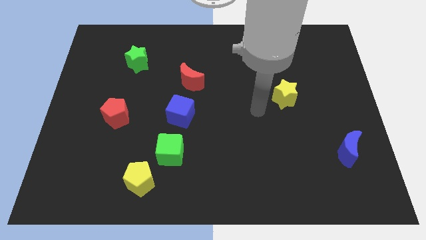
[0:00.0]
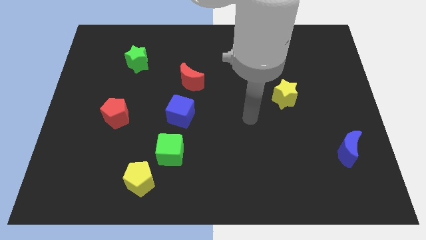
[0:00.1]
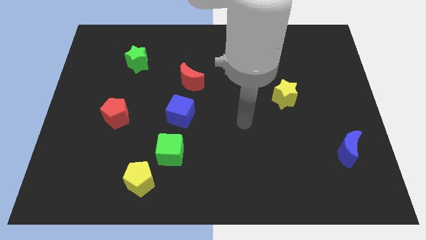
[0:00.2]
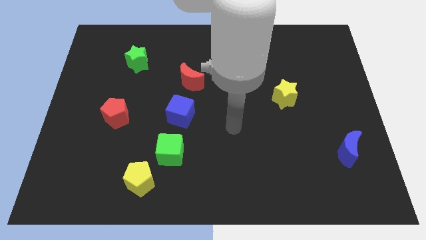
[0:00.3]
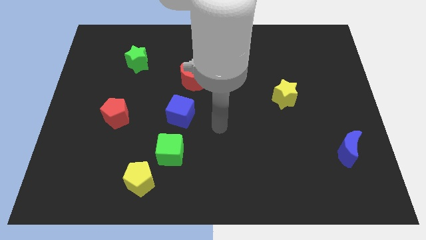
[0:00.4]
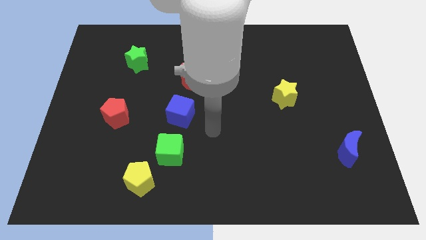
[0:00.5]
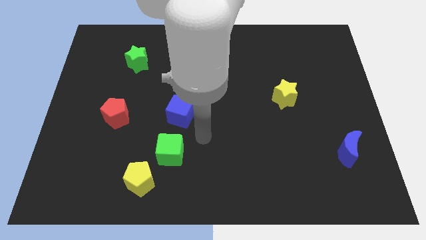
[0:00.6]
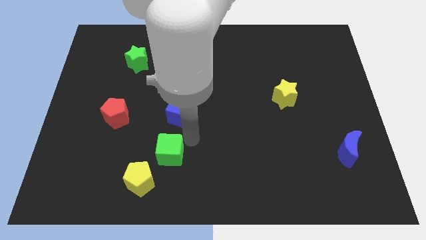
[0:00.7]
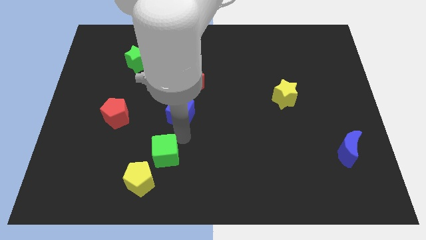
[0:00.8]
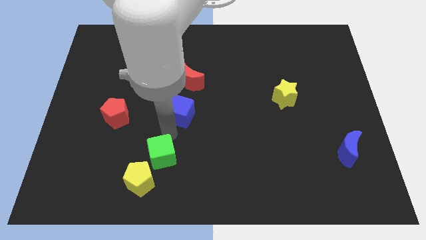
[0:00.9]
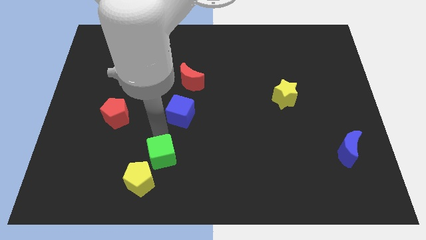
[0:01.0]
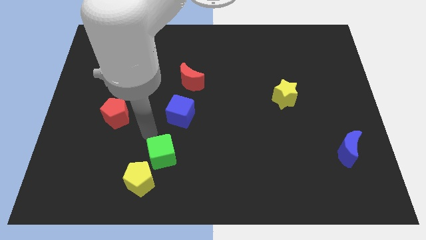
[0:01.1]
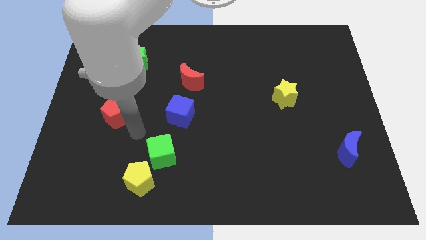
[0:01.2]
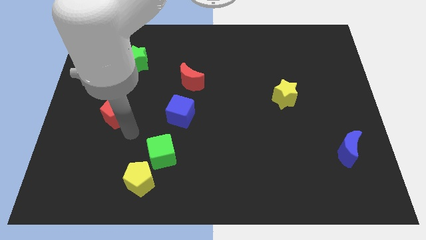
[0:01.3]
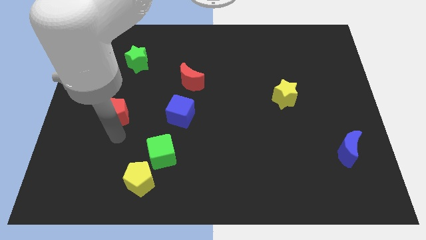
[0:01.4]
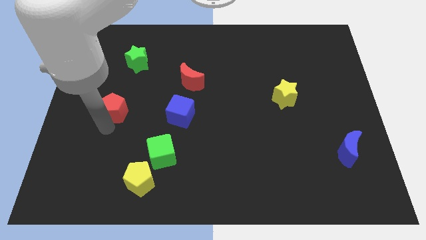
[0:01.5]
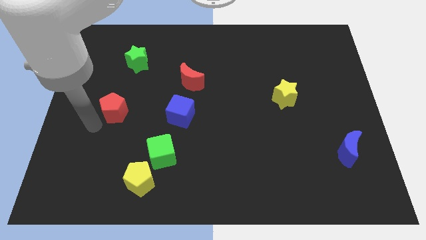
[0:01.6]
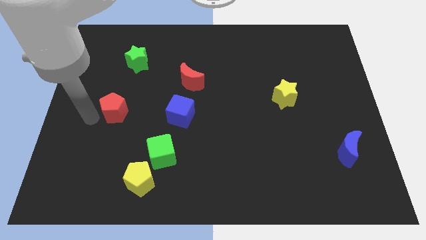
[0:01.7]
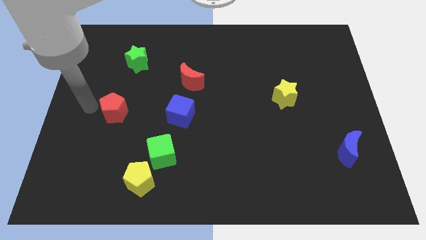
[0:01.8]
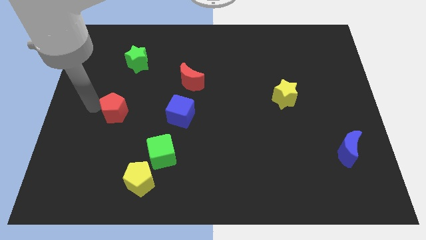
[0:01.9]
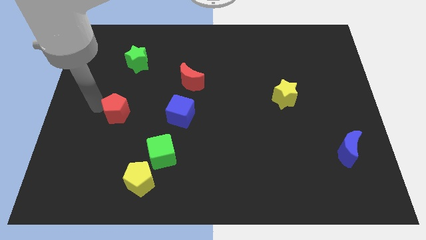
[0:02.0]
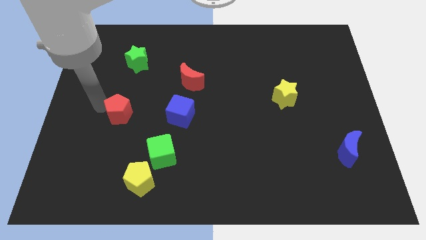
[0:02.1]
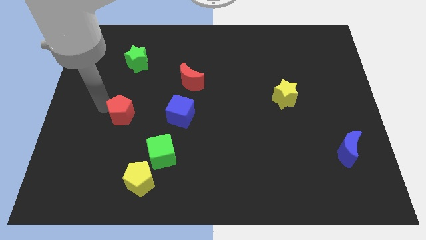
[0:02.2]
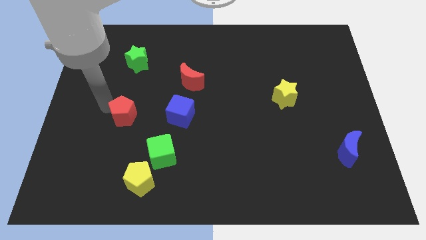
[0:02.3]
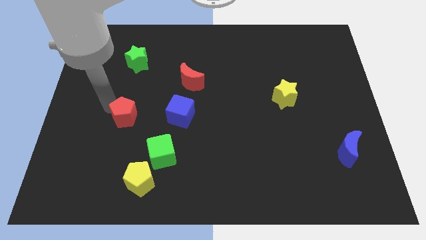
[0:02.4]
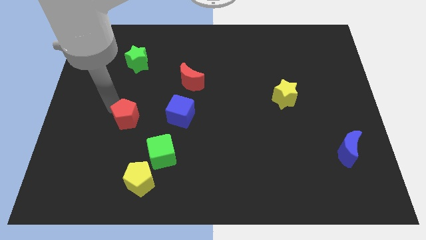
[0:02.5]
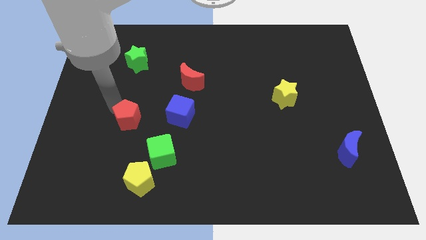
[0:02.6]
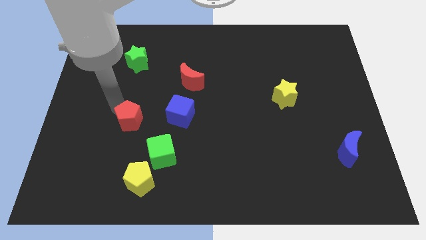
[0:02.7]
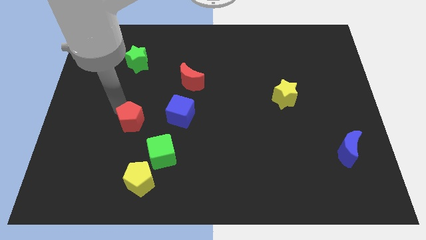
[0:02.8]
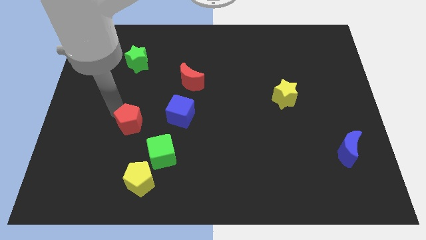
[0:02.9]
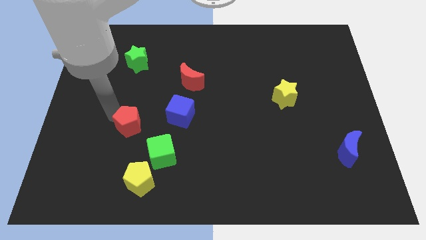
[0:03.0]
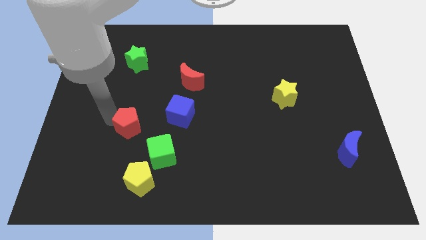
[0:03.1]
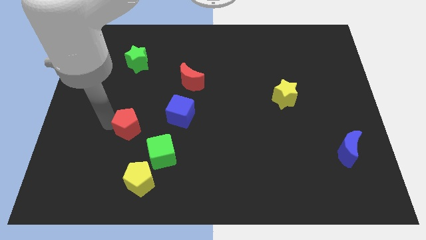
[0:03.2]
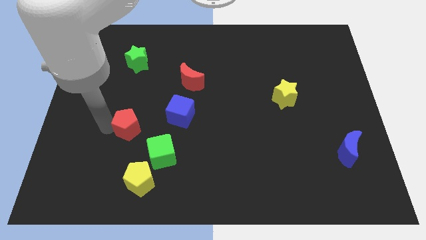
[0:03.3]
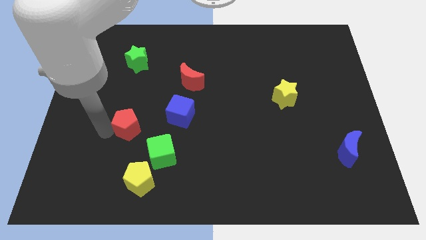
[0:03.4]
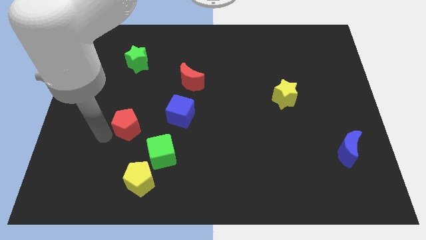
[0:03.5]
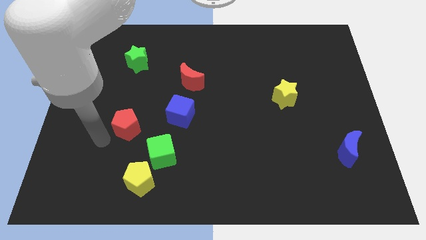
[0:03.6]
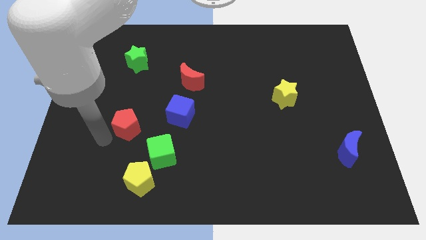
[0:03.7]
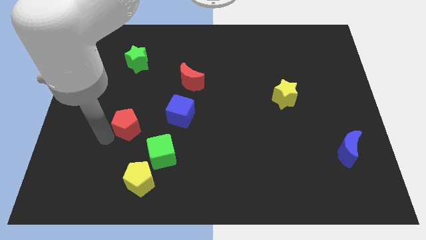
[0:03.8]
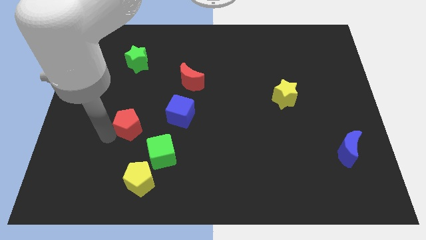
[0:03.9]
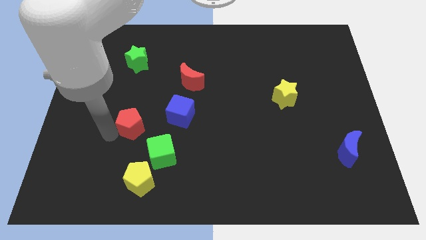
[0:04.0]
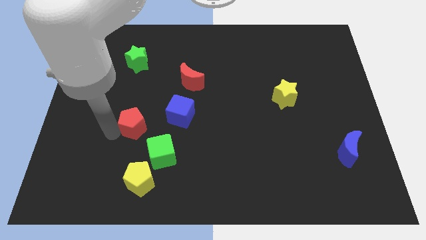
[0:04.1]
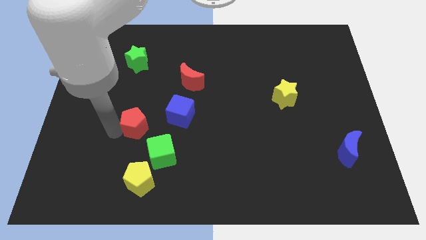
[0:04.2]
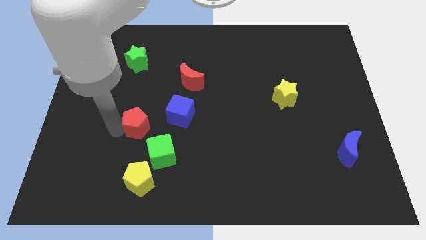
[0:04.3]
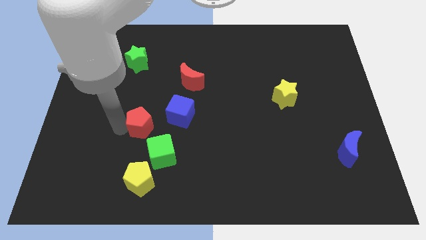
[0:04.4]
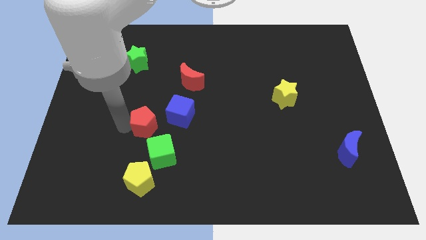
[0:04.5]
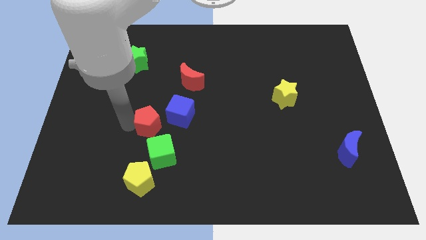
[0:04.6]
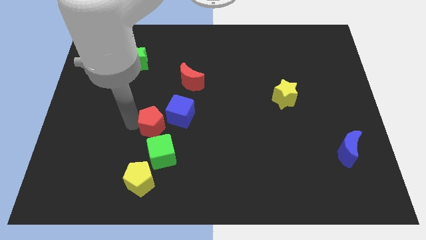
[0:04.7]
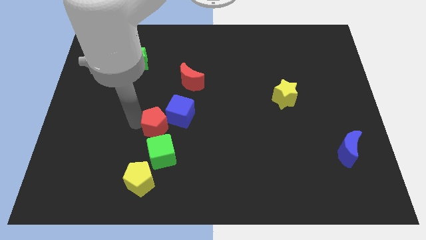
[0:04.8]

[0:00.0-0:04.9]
move the red pentagon to the blue cube

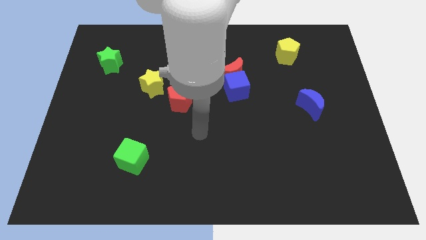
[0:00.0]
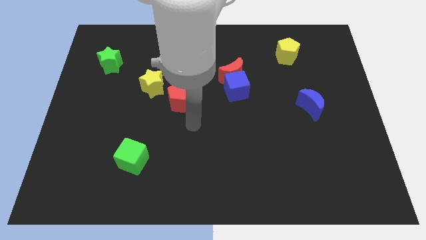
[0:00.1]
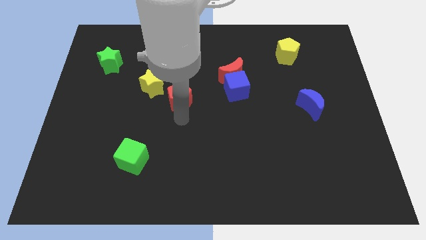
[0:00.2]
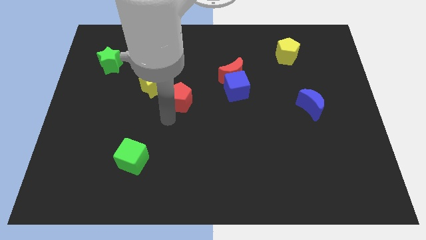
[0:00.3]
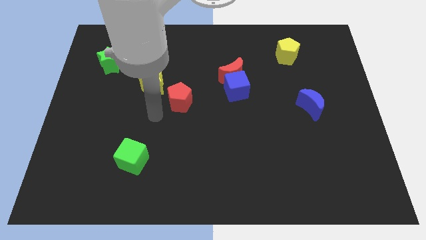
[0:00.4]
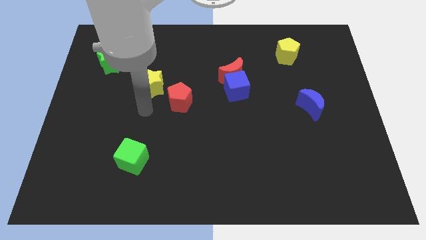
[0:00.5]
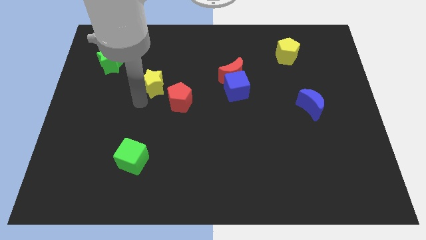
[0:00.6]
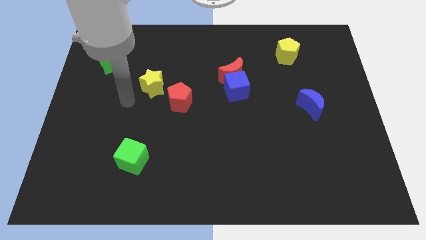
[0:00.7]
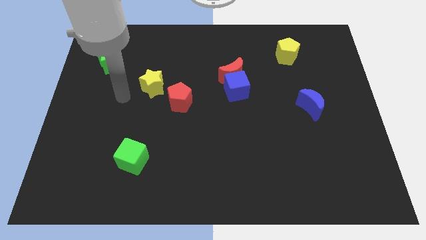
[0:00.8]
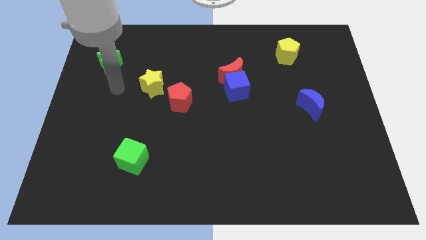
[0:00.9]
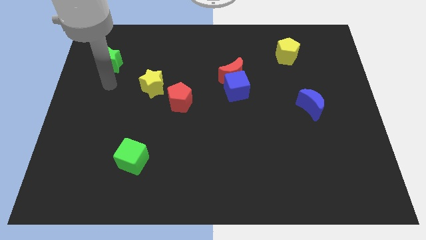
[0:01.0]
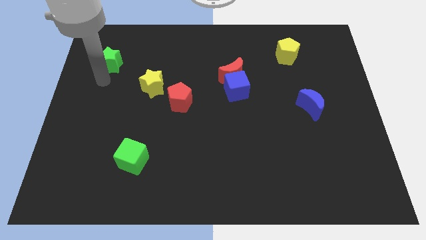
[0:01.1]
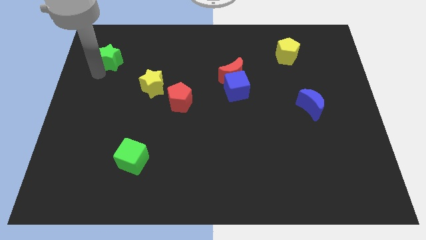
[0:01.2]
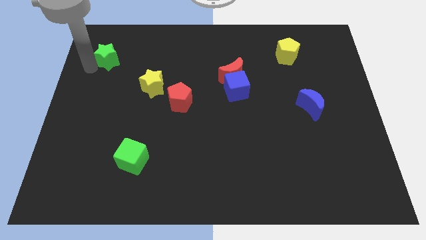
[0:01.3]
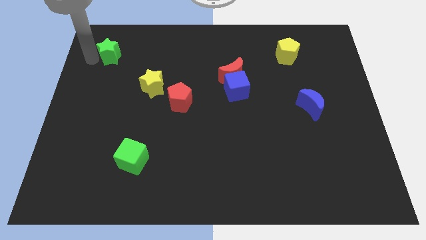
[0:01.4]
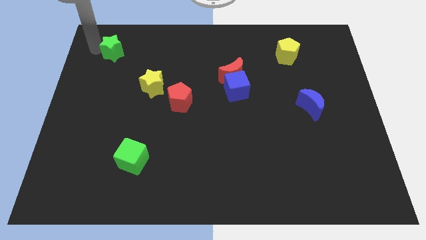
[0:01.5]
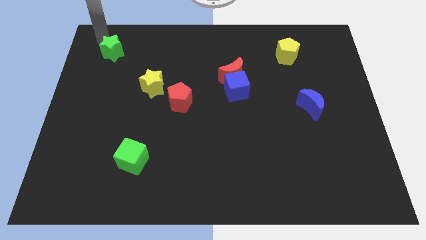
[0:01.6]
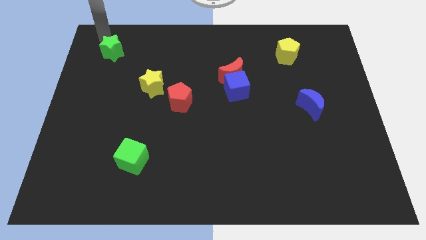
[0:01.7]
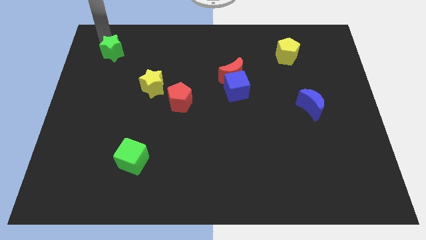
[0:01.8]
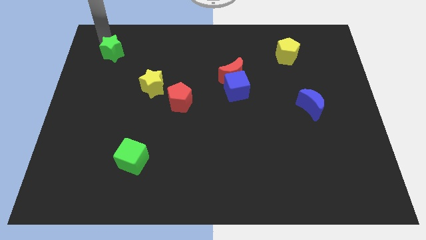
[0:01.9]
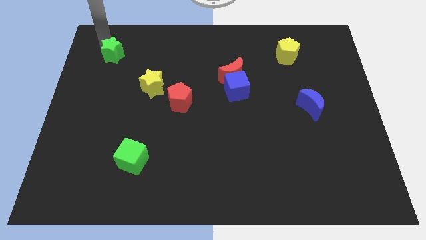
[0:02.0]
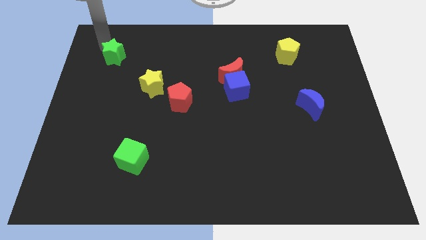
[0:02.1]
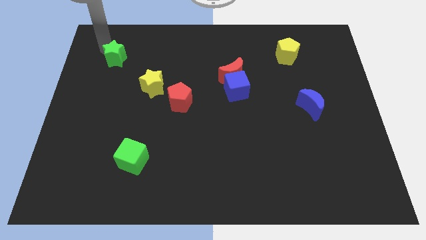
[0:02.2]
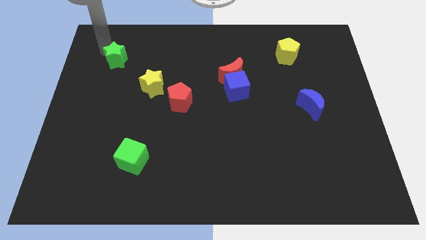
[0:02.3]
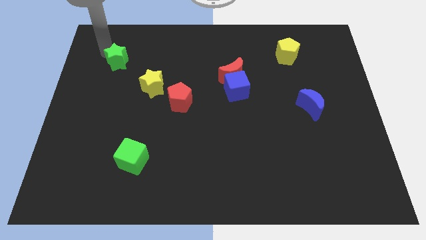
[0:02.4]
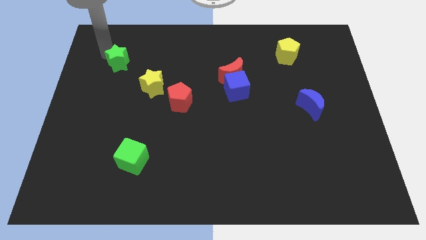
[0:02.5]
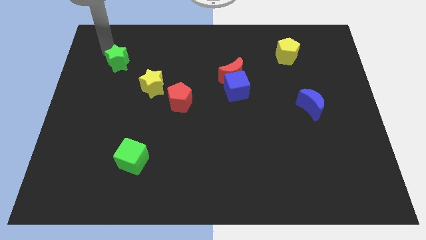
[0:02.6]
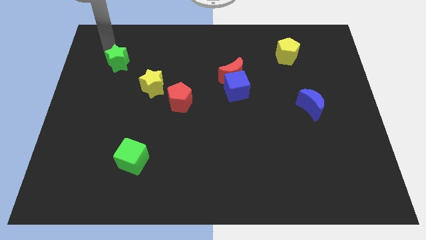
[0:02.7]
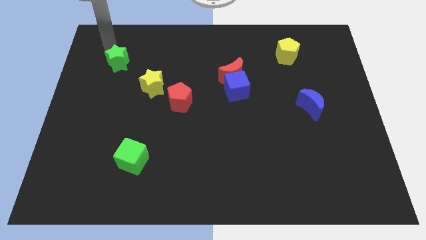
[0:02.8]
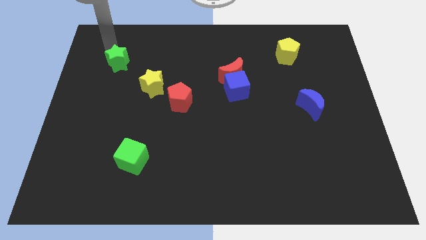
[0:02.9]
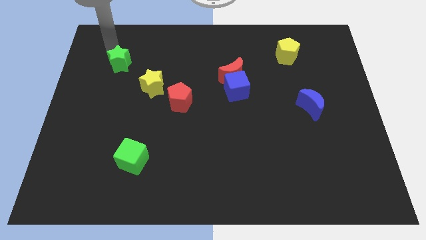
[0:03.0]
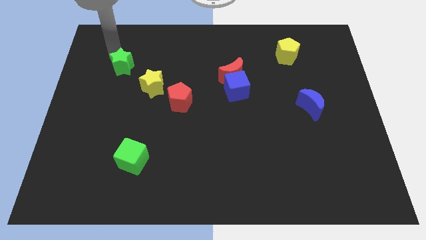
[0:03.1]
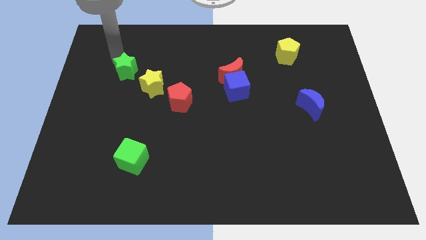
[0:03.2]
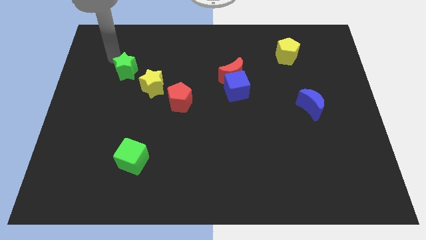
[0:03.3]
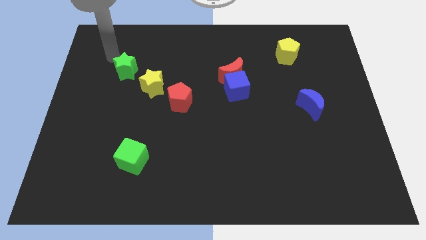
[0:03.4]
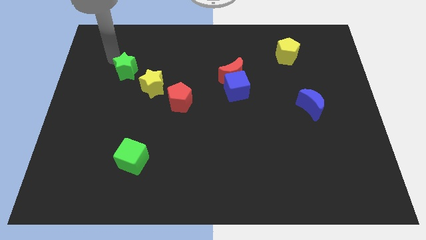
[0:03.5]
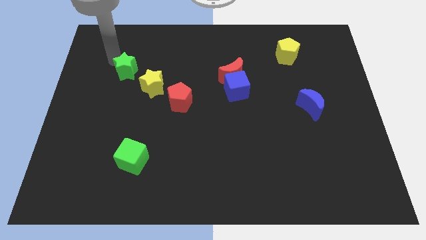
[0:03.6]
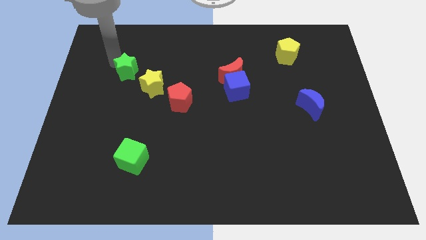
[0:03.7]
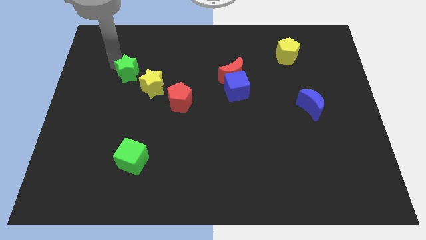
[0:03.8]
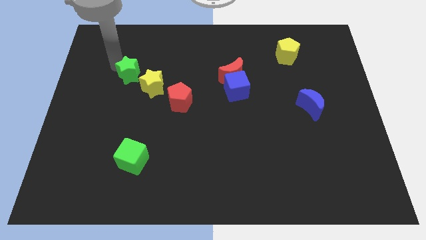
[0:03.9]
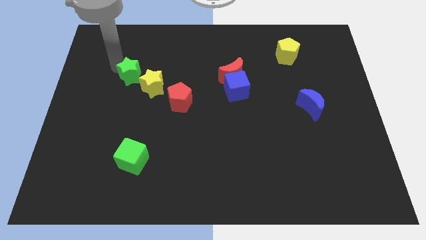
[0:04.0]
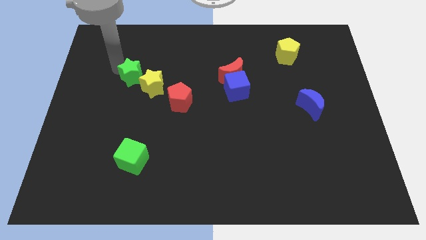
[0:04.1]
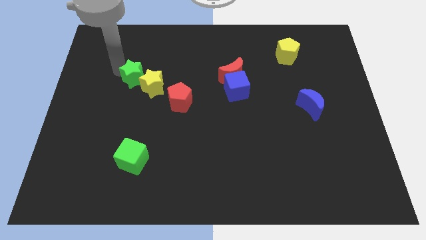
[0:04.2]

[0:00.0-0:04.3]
put the green star next to the yellow star
